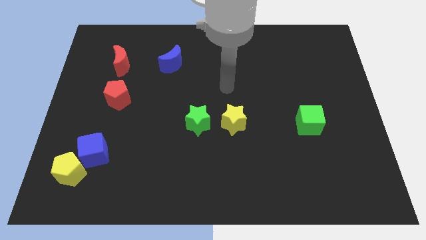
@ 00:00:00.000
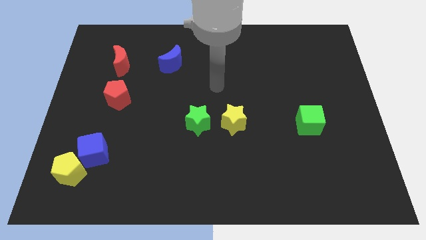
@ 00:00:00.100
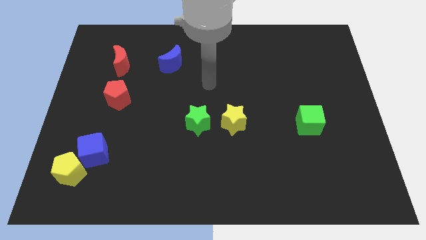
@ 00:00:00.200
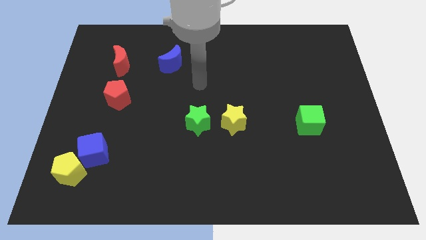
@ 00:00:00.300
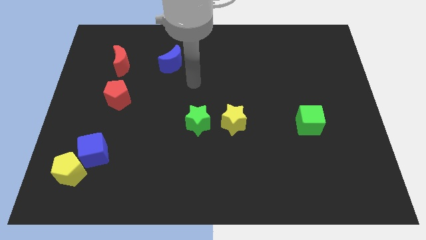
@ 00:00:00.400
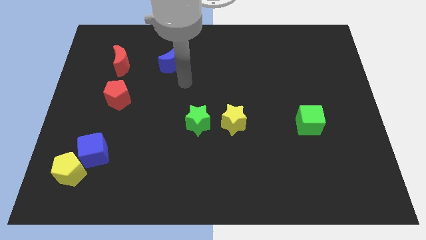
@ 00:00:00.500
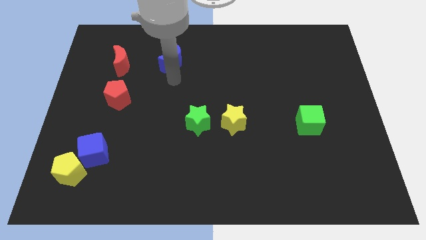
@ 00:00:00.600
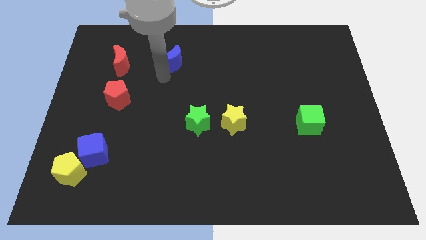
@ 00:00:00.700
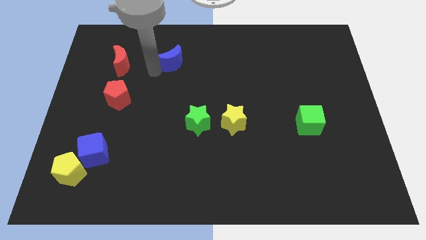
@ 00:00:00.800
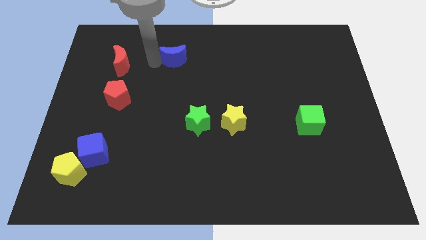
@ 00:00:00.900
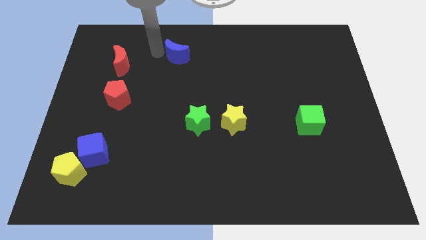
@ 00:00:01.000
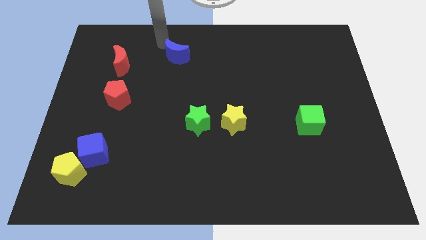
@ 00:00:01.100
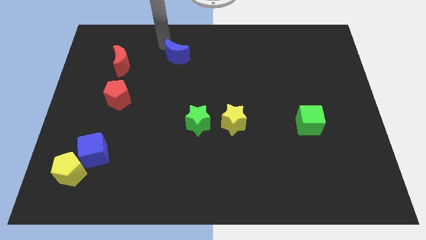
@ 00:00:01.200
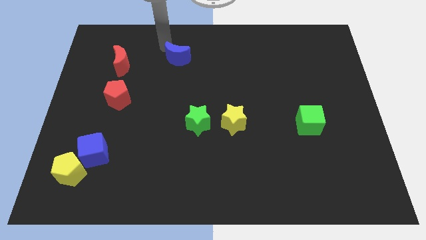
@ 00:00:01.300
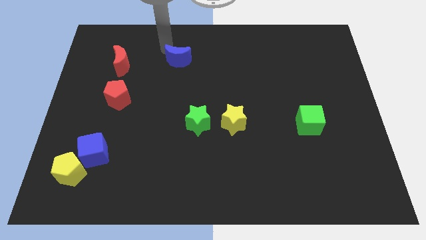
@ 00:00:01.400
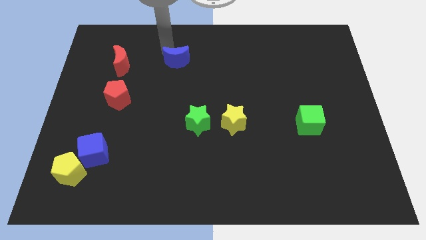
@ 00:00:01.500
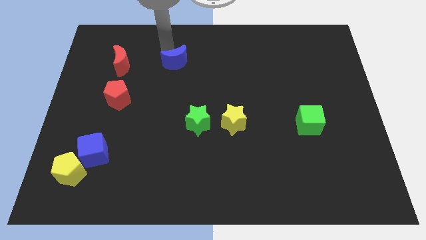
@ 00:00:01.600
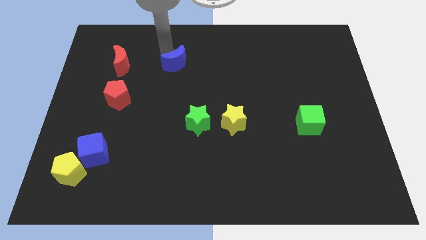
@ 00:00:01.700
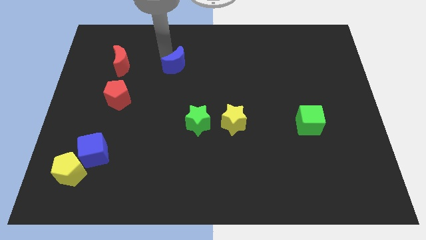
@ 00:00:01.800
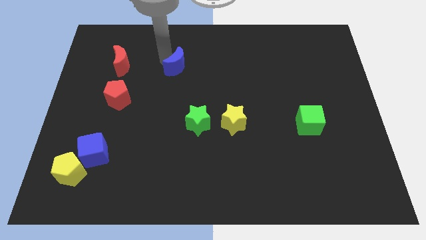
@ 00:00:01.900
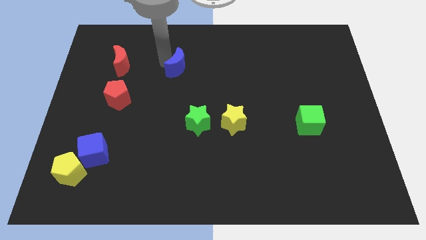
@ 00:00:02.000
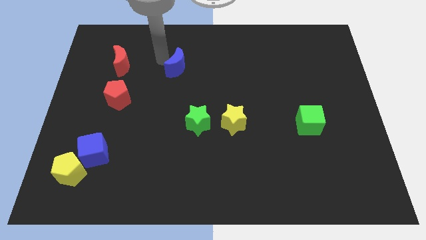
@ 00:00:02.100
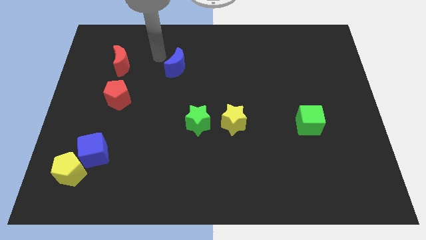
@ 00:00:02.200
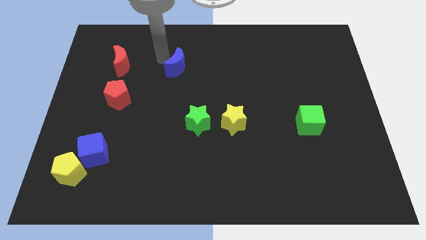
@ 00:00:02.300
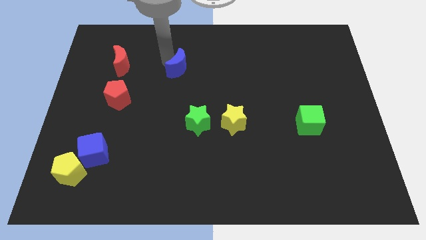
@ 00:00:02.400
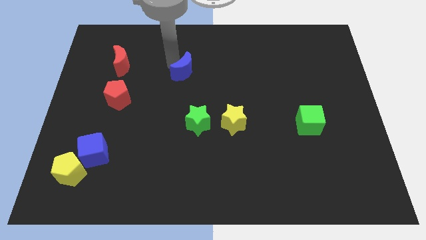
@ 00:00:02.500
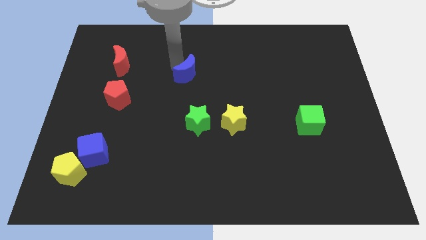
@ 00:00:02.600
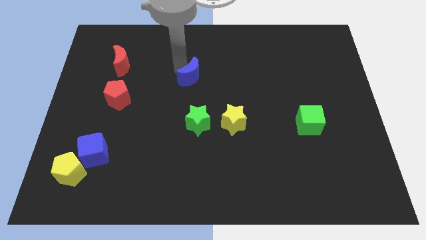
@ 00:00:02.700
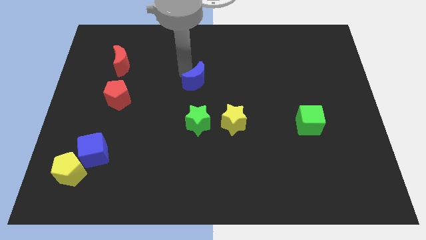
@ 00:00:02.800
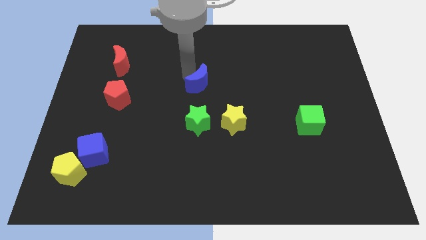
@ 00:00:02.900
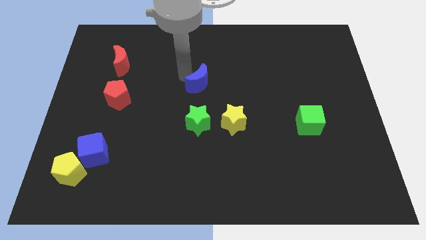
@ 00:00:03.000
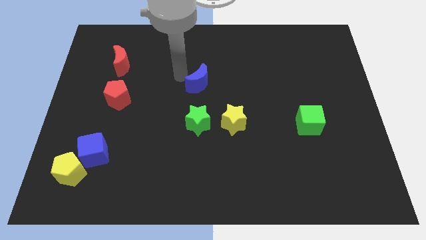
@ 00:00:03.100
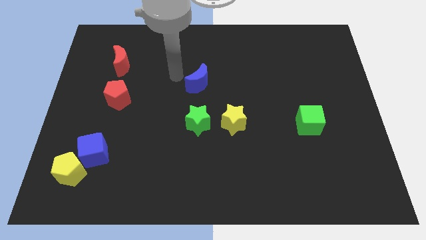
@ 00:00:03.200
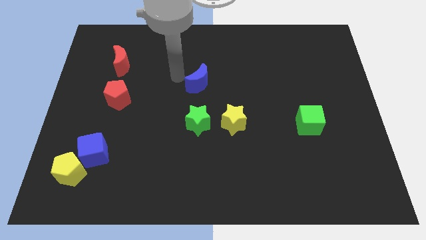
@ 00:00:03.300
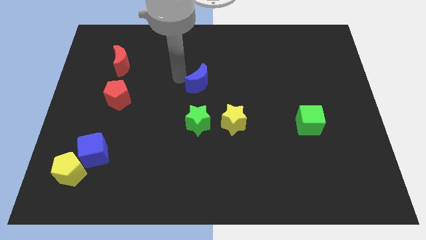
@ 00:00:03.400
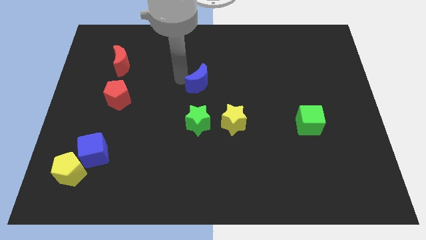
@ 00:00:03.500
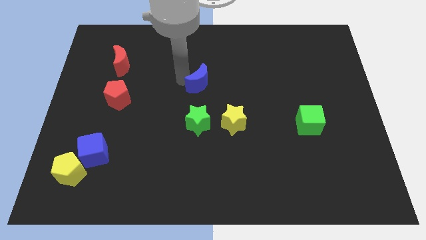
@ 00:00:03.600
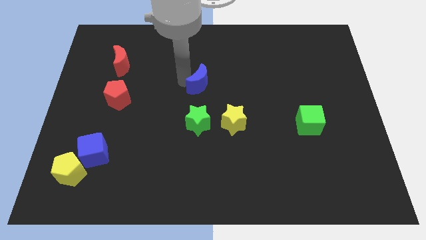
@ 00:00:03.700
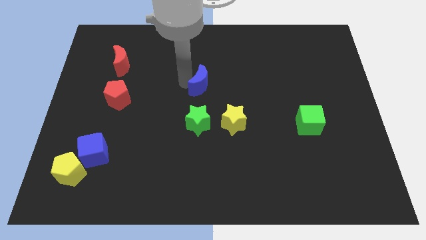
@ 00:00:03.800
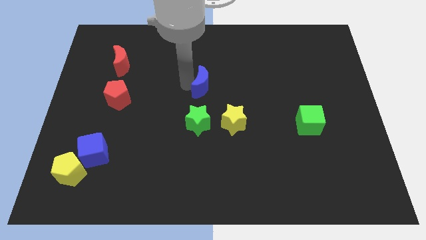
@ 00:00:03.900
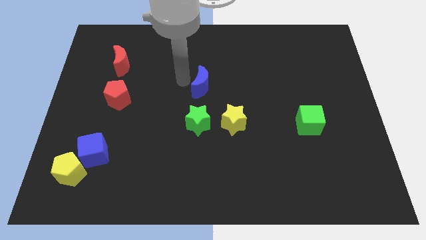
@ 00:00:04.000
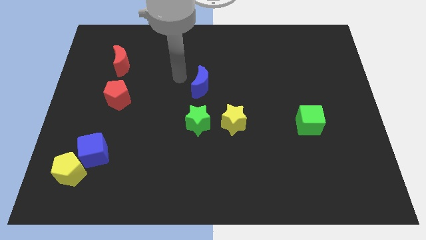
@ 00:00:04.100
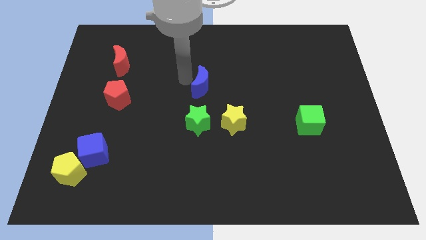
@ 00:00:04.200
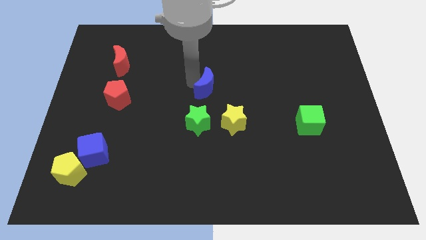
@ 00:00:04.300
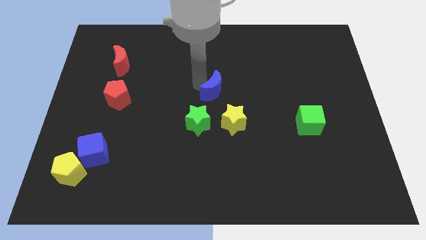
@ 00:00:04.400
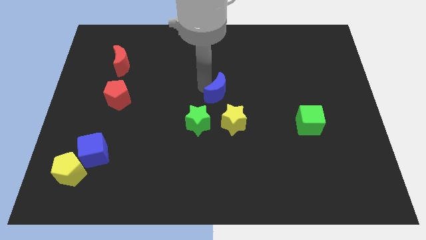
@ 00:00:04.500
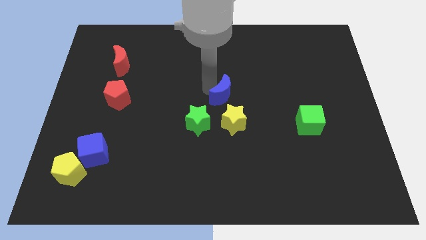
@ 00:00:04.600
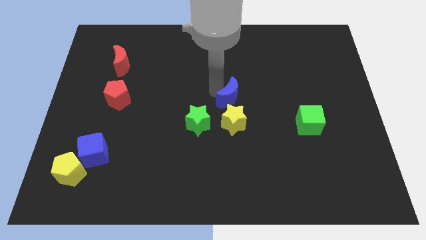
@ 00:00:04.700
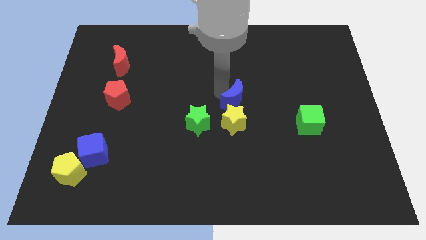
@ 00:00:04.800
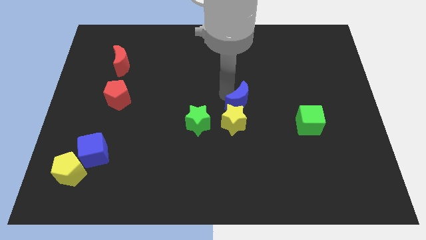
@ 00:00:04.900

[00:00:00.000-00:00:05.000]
push the blue moon down and right

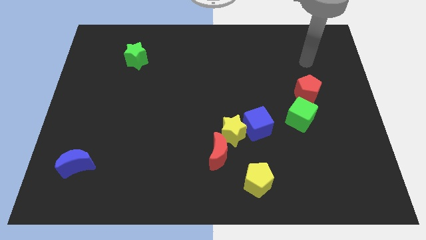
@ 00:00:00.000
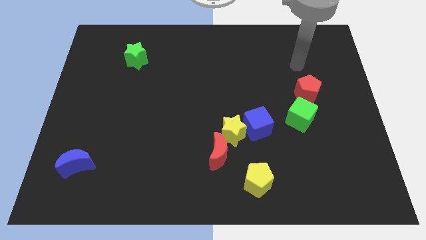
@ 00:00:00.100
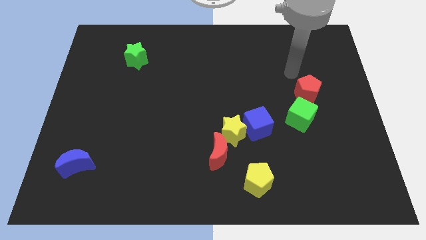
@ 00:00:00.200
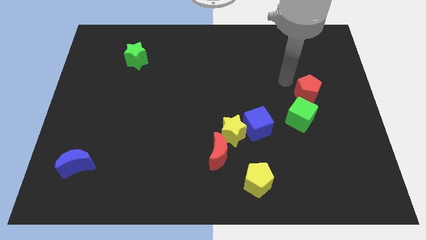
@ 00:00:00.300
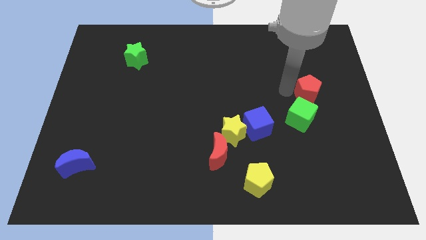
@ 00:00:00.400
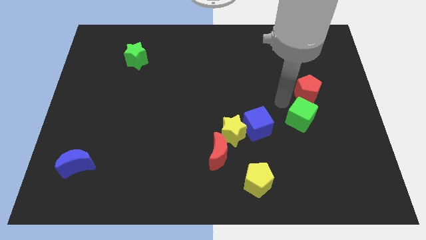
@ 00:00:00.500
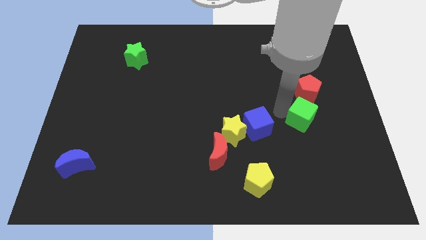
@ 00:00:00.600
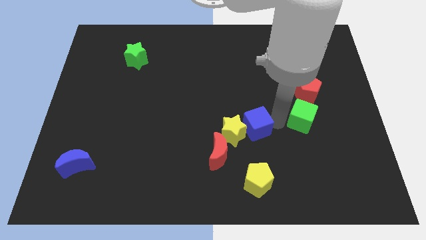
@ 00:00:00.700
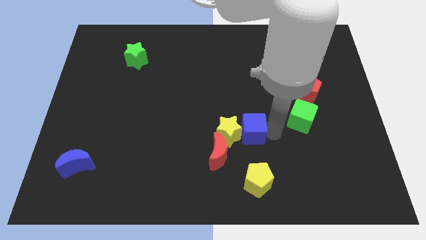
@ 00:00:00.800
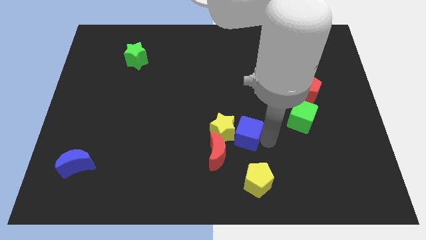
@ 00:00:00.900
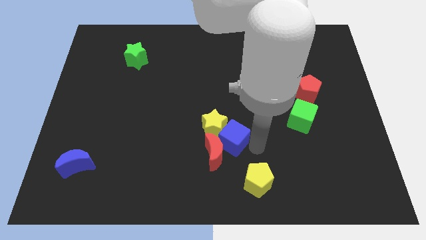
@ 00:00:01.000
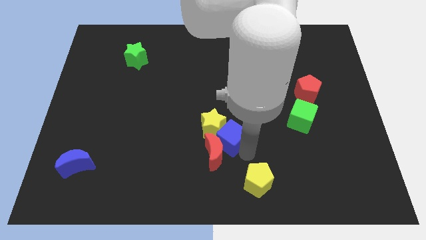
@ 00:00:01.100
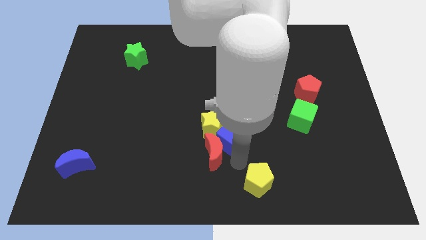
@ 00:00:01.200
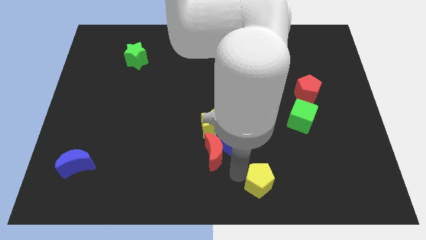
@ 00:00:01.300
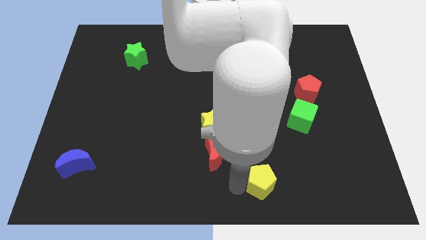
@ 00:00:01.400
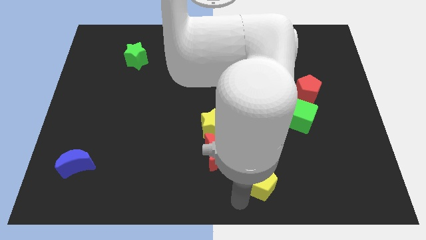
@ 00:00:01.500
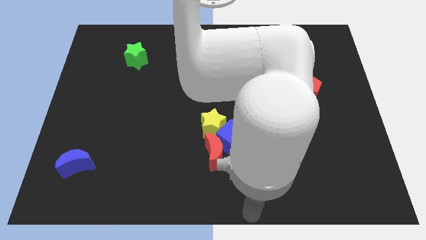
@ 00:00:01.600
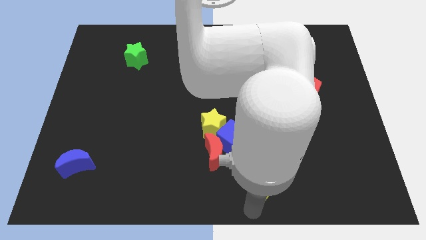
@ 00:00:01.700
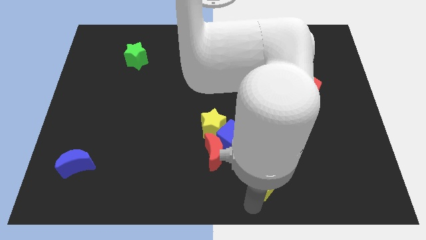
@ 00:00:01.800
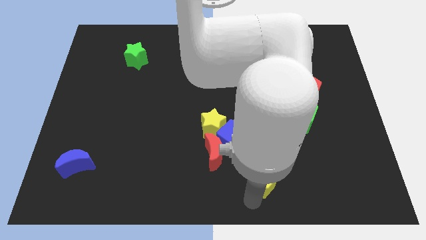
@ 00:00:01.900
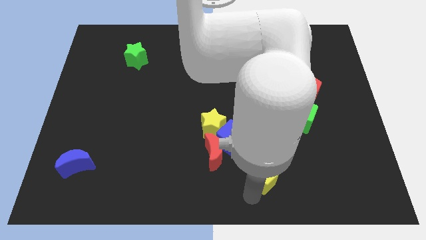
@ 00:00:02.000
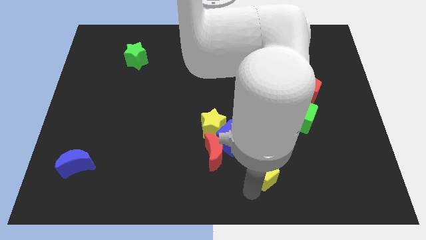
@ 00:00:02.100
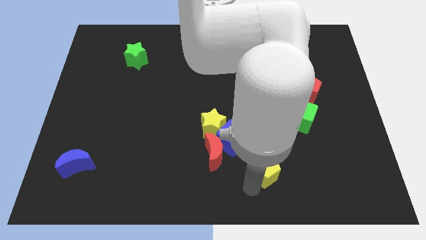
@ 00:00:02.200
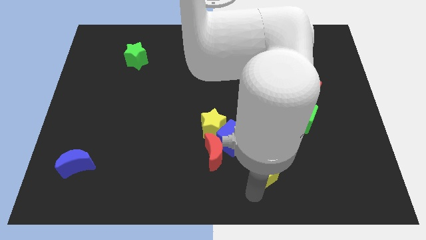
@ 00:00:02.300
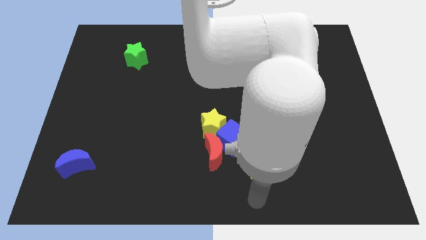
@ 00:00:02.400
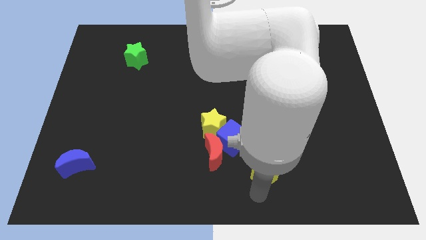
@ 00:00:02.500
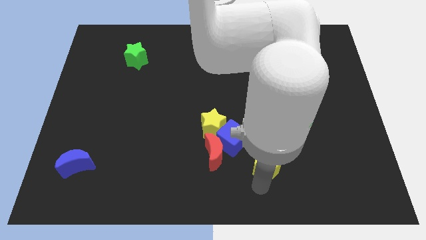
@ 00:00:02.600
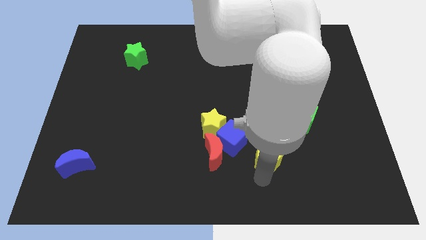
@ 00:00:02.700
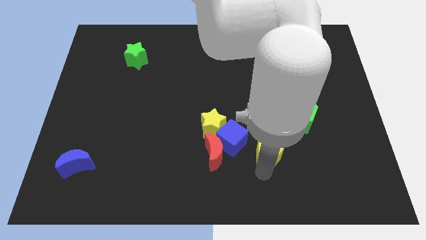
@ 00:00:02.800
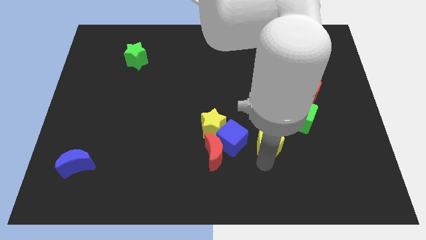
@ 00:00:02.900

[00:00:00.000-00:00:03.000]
slightly move the yellow pentagon up
